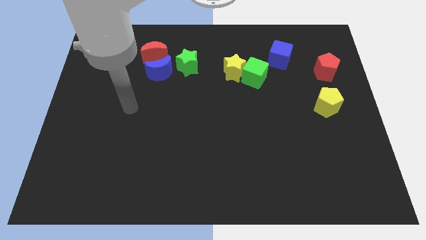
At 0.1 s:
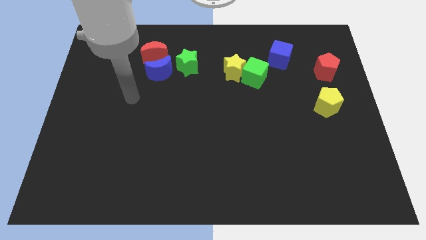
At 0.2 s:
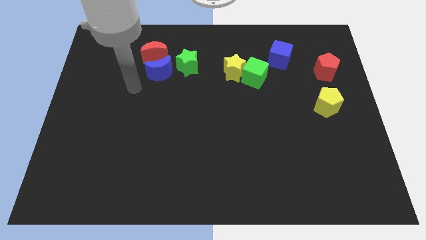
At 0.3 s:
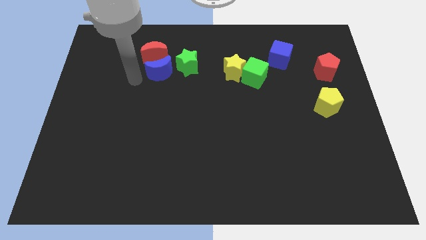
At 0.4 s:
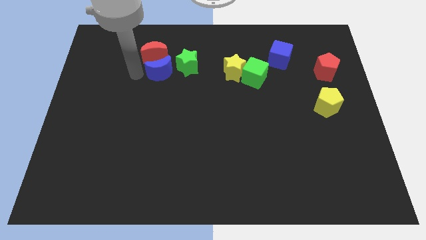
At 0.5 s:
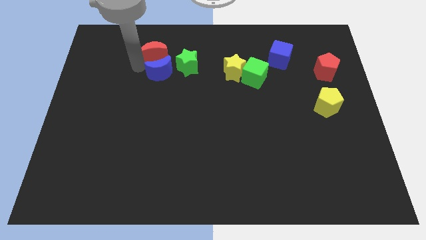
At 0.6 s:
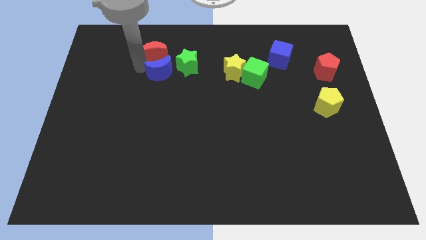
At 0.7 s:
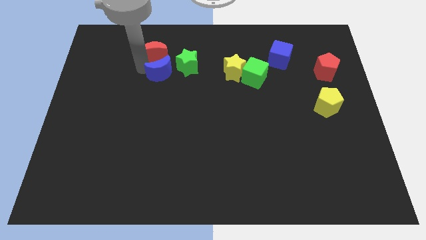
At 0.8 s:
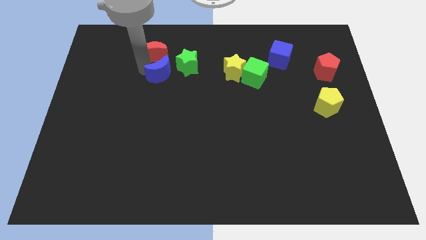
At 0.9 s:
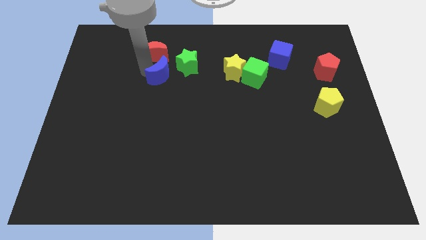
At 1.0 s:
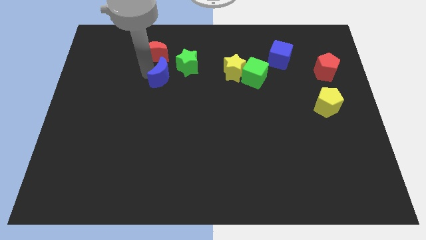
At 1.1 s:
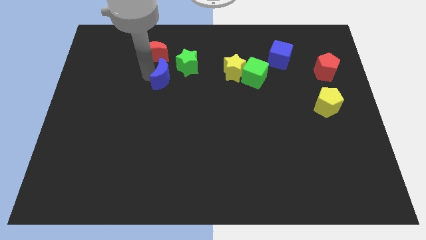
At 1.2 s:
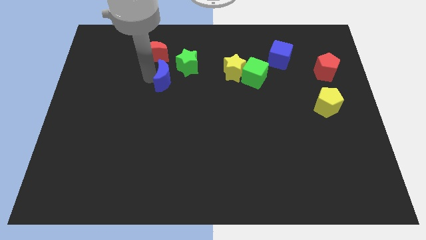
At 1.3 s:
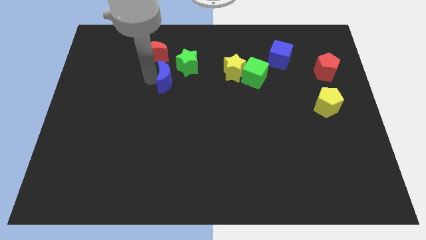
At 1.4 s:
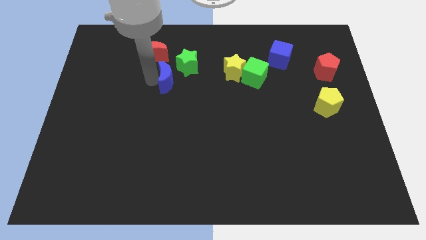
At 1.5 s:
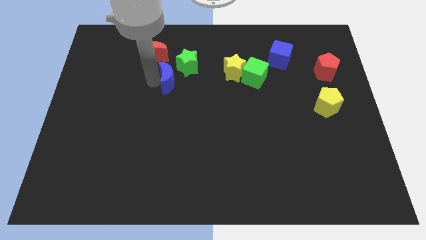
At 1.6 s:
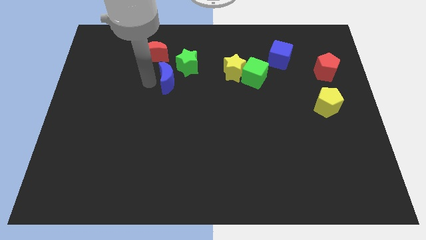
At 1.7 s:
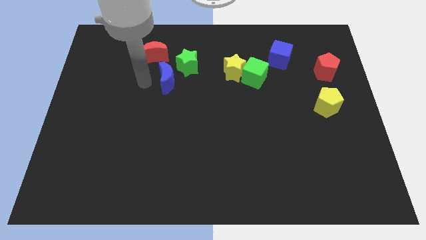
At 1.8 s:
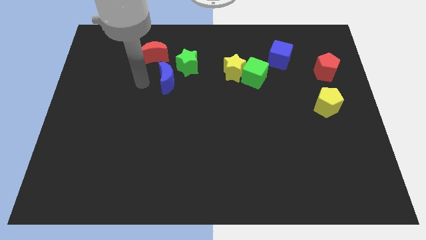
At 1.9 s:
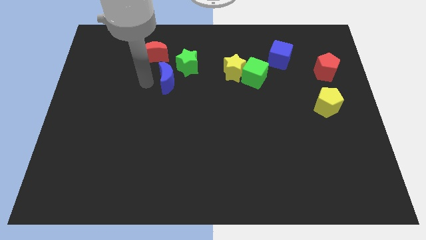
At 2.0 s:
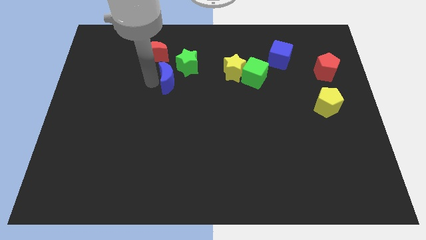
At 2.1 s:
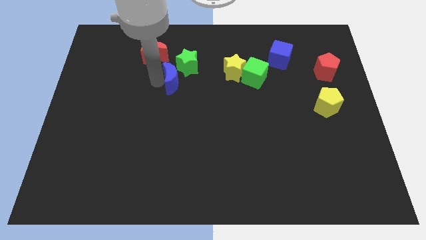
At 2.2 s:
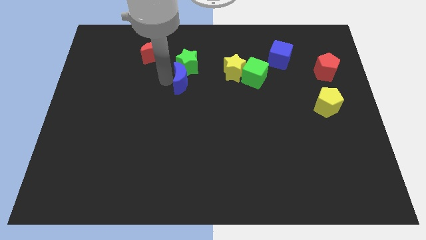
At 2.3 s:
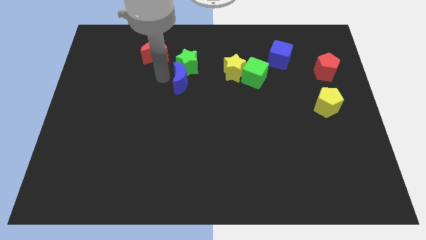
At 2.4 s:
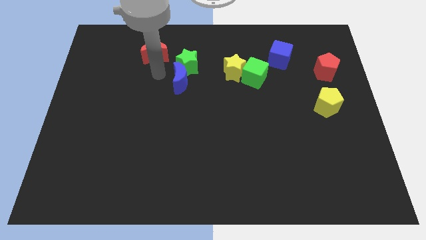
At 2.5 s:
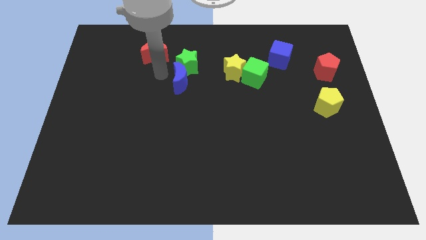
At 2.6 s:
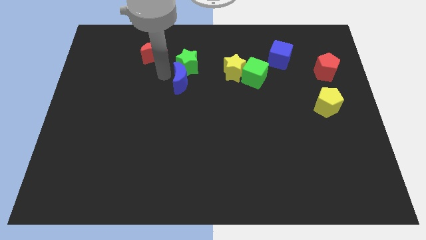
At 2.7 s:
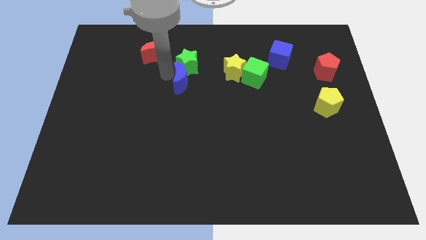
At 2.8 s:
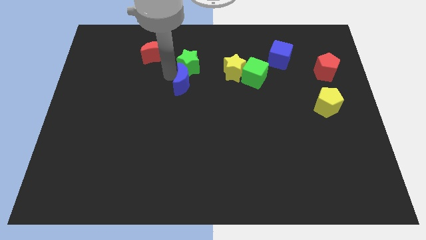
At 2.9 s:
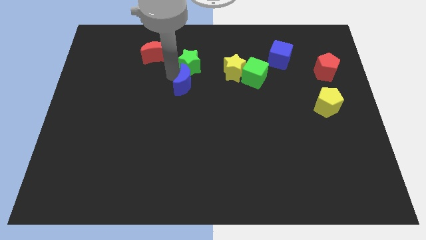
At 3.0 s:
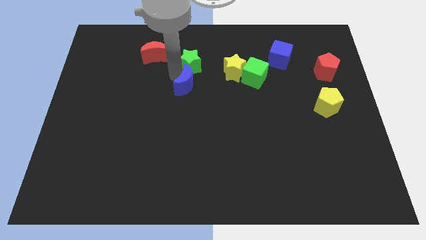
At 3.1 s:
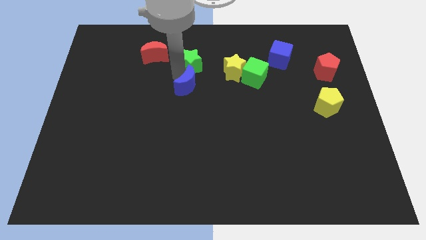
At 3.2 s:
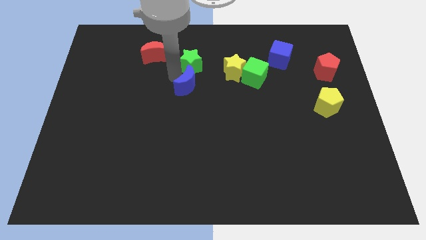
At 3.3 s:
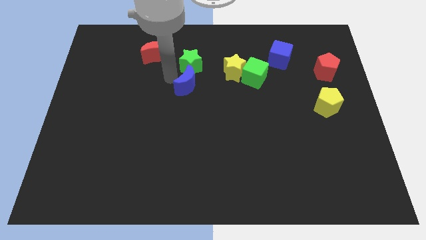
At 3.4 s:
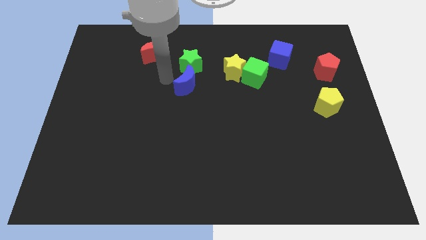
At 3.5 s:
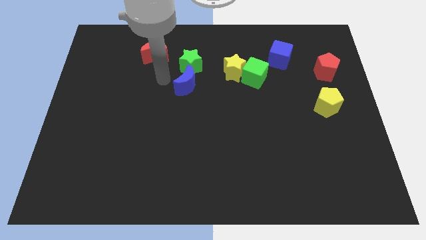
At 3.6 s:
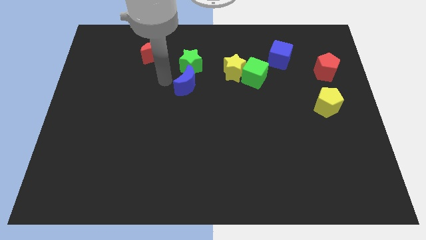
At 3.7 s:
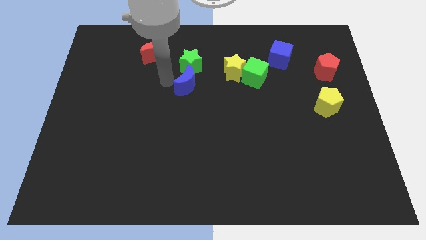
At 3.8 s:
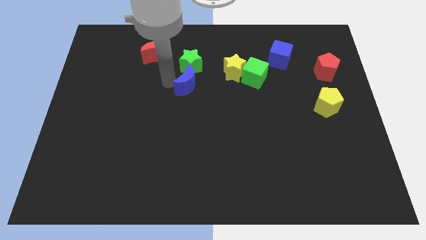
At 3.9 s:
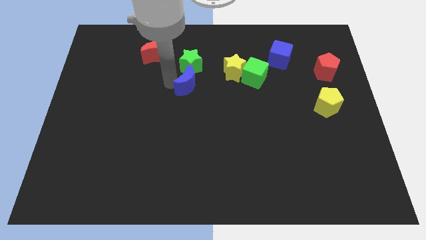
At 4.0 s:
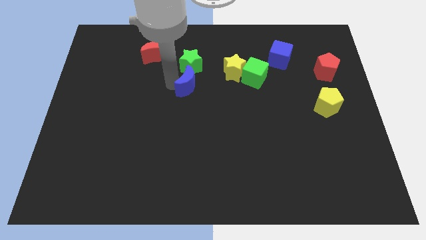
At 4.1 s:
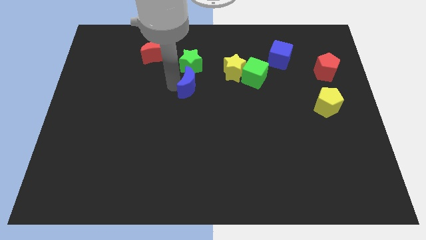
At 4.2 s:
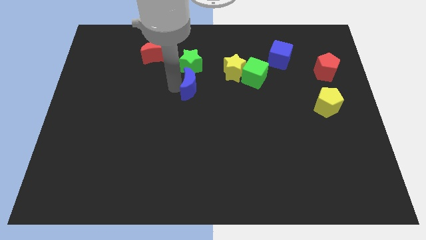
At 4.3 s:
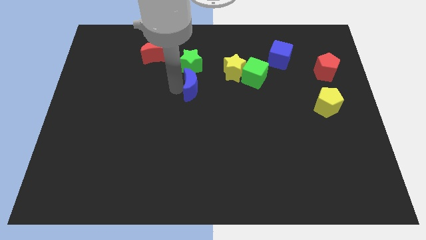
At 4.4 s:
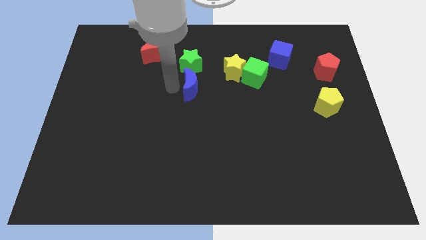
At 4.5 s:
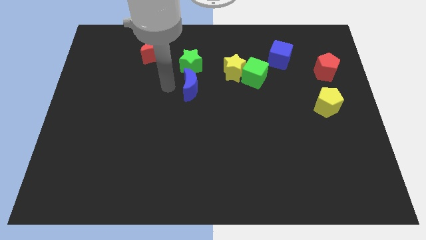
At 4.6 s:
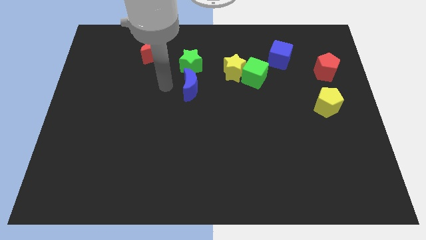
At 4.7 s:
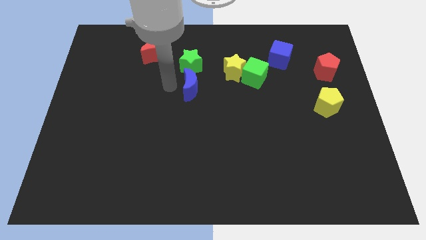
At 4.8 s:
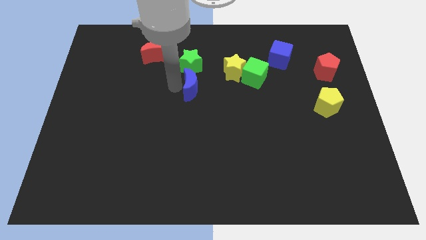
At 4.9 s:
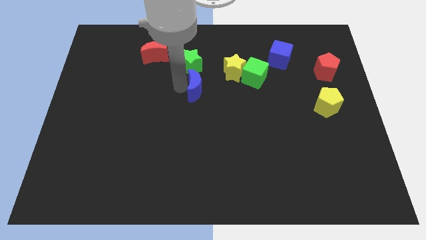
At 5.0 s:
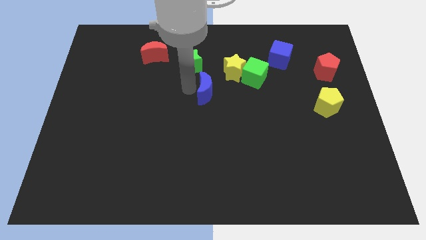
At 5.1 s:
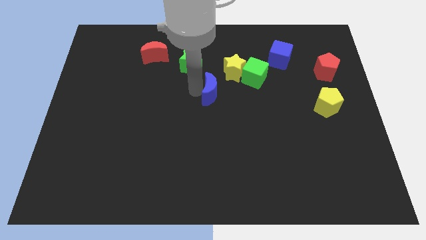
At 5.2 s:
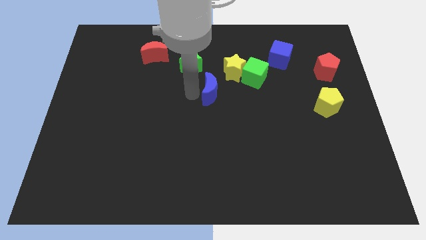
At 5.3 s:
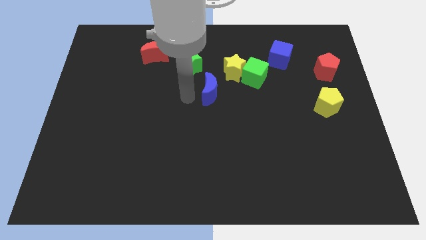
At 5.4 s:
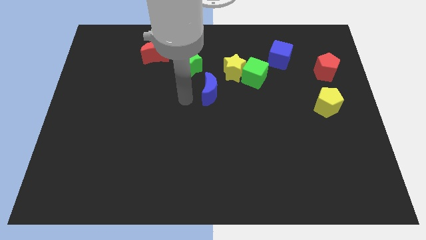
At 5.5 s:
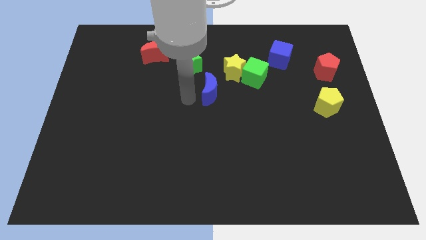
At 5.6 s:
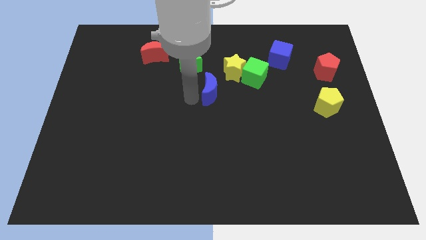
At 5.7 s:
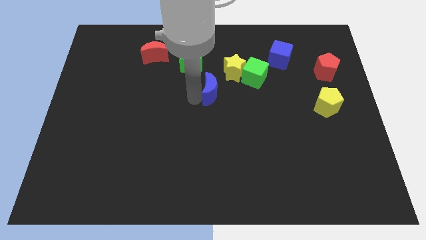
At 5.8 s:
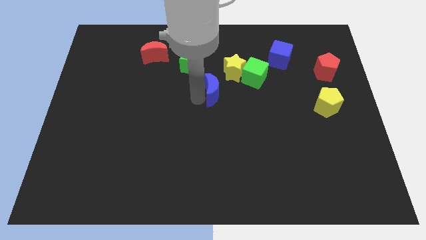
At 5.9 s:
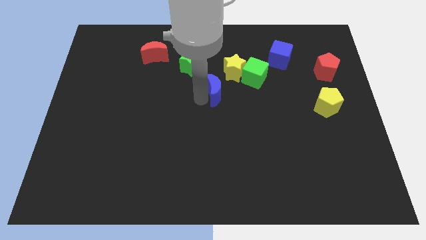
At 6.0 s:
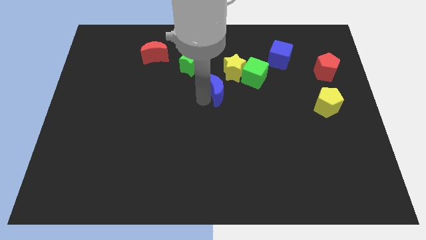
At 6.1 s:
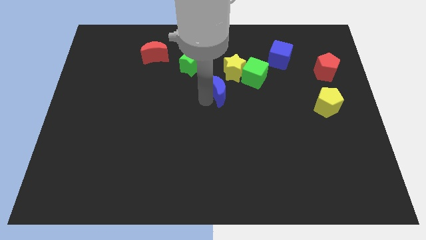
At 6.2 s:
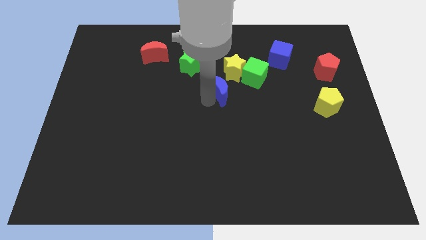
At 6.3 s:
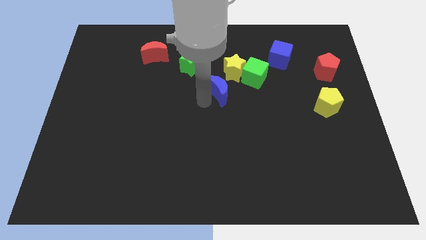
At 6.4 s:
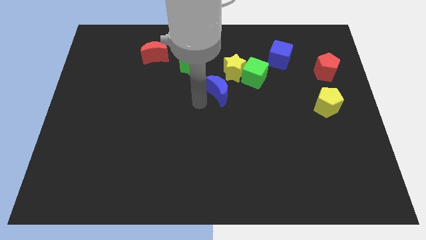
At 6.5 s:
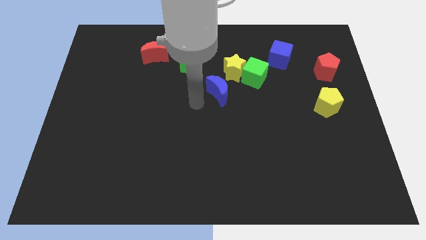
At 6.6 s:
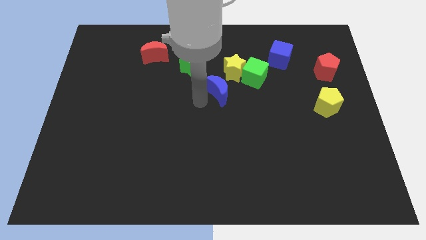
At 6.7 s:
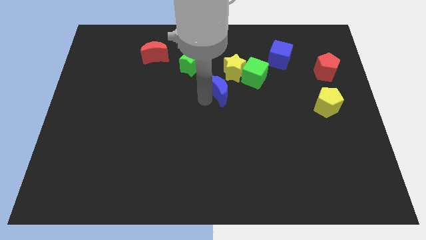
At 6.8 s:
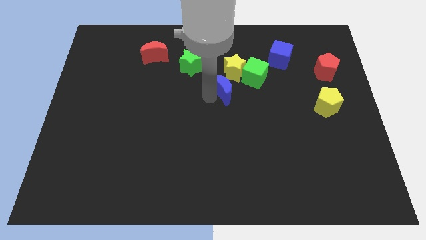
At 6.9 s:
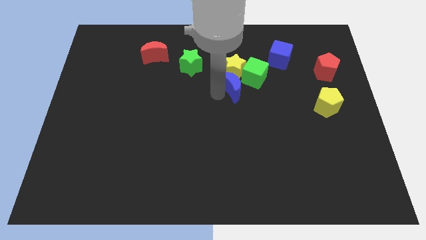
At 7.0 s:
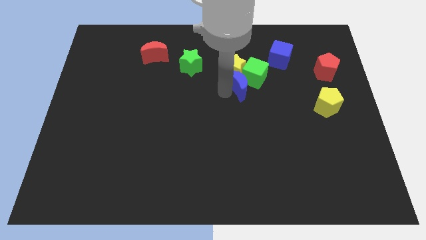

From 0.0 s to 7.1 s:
move the blue moon close to the green cube

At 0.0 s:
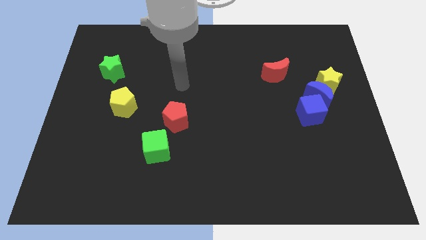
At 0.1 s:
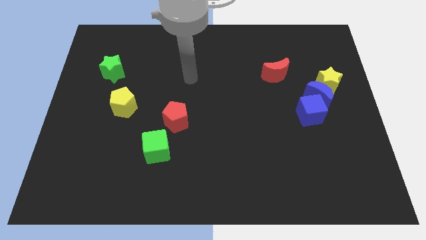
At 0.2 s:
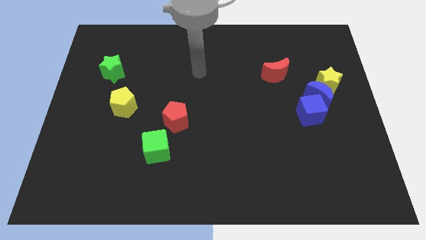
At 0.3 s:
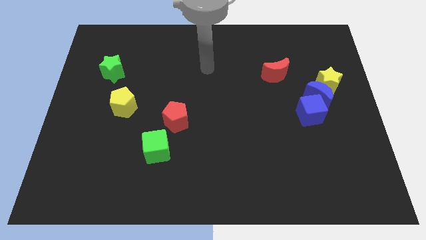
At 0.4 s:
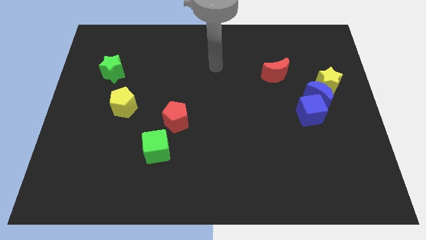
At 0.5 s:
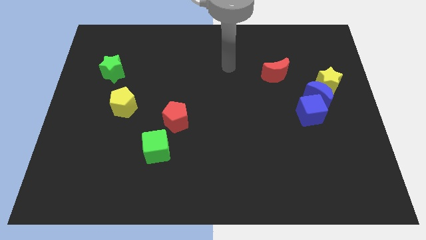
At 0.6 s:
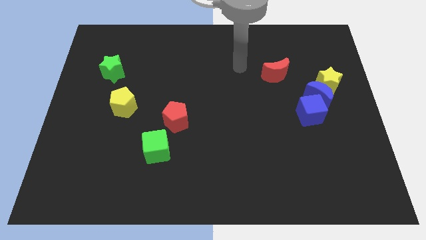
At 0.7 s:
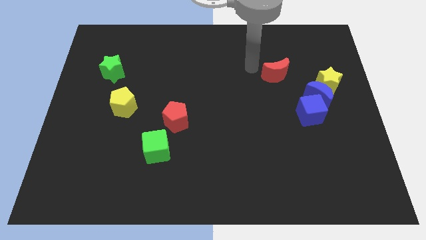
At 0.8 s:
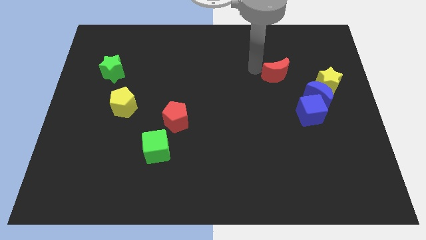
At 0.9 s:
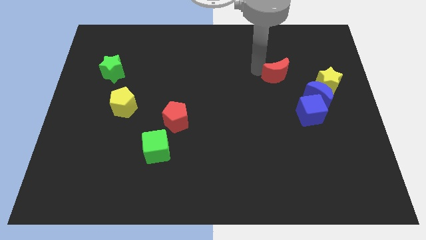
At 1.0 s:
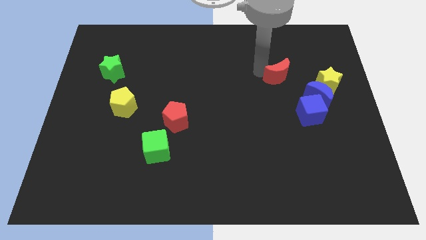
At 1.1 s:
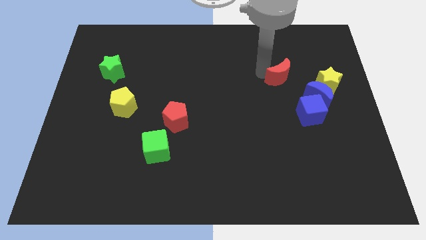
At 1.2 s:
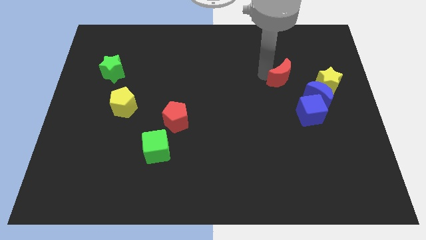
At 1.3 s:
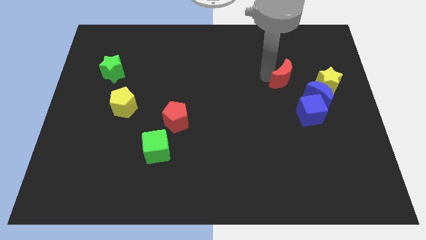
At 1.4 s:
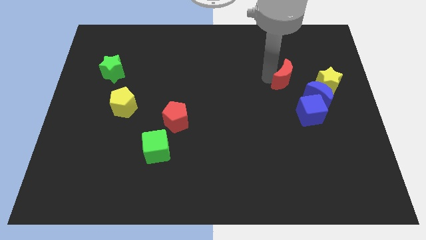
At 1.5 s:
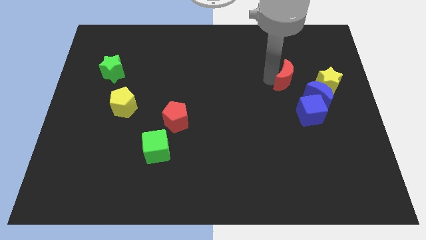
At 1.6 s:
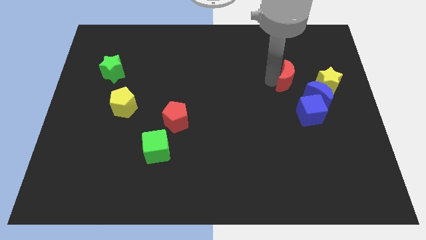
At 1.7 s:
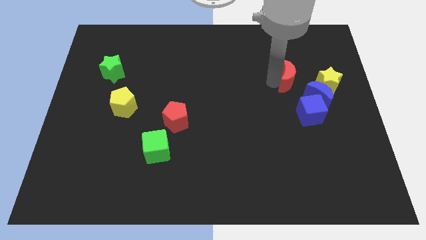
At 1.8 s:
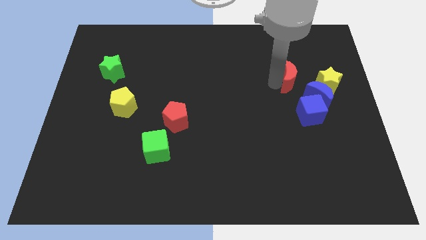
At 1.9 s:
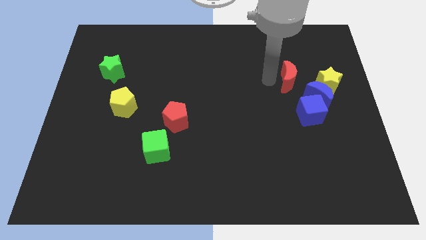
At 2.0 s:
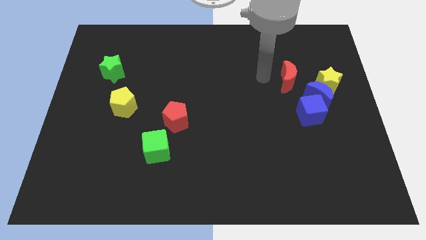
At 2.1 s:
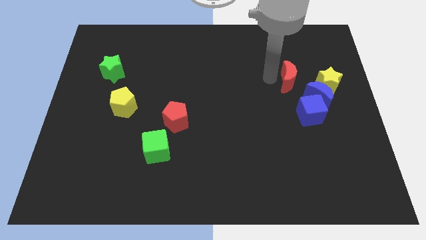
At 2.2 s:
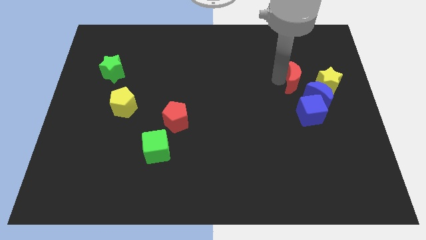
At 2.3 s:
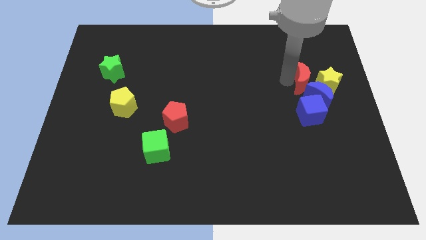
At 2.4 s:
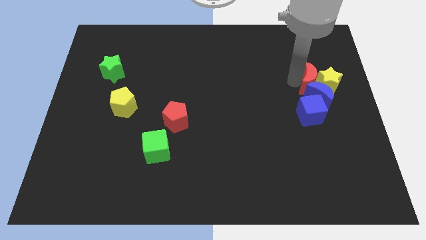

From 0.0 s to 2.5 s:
slide the red moon next to the yellow star
